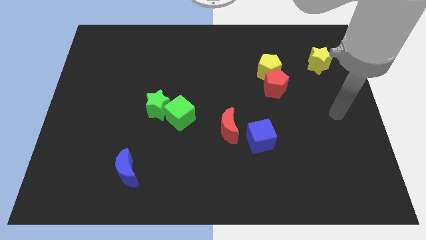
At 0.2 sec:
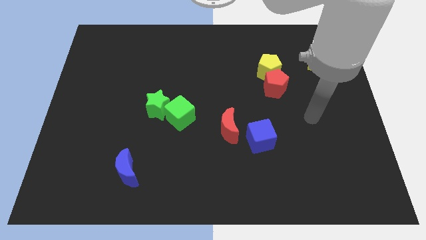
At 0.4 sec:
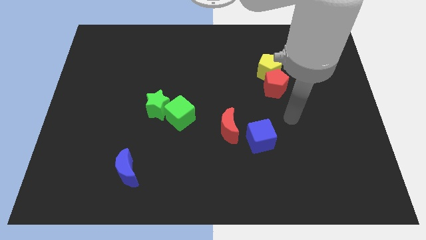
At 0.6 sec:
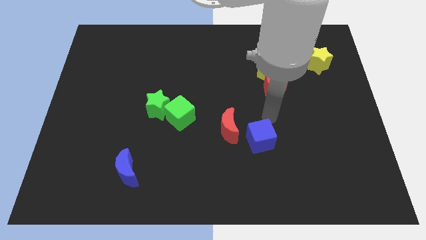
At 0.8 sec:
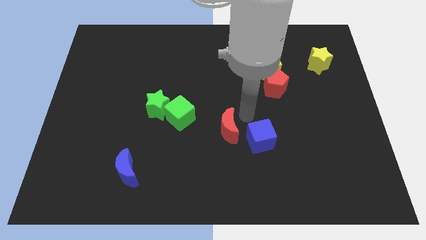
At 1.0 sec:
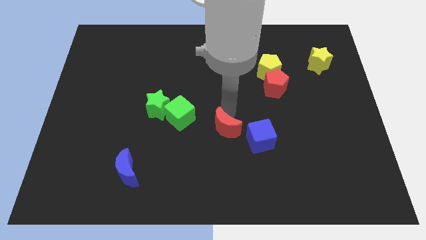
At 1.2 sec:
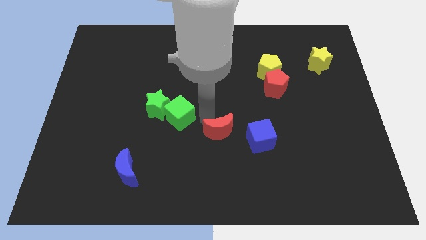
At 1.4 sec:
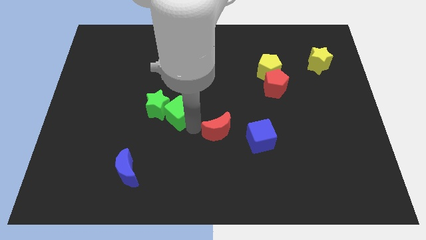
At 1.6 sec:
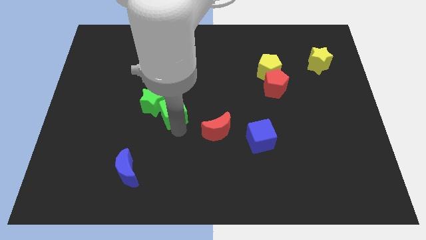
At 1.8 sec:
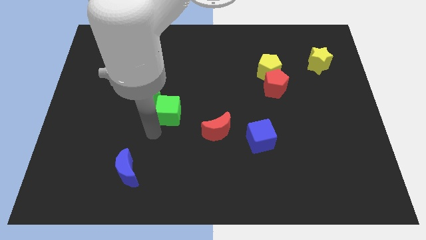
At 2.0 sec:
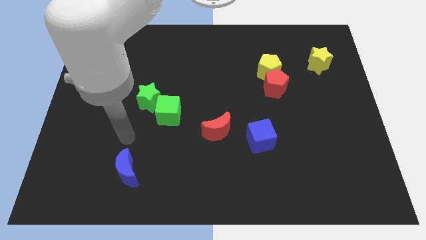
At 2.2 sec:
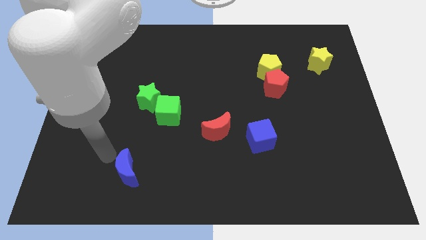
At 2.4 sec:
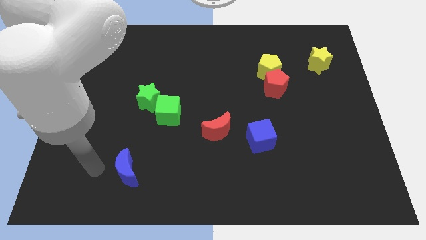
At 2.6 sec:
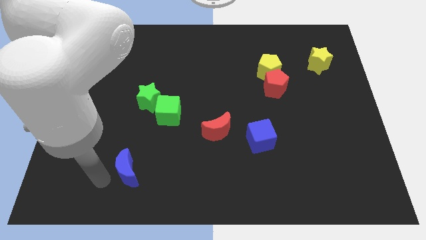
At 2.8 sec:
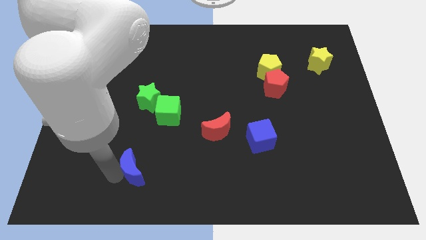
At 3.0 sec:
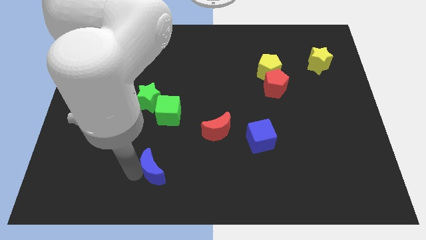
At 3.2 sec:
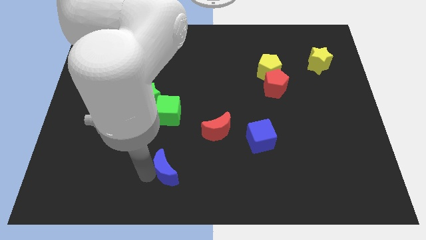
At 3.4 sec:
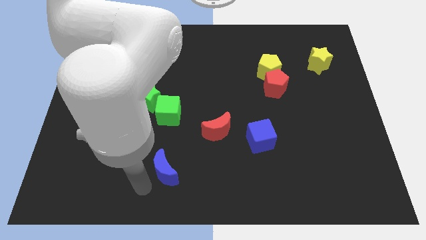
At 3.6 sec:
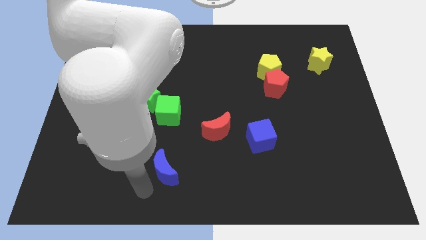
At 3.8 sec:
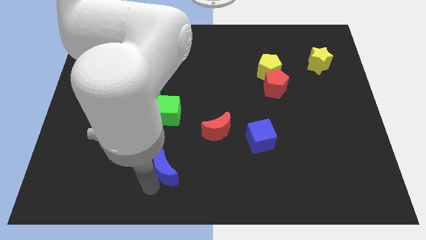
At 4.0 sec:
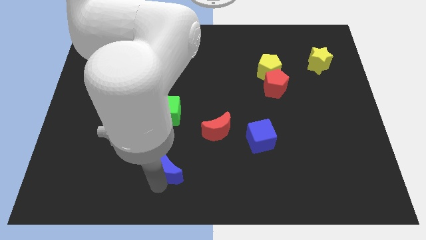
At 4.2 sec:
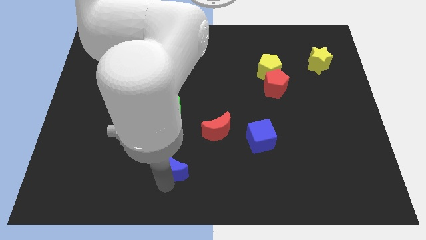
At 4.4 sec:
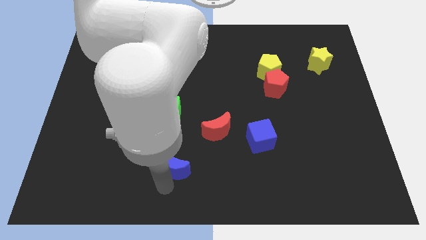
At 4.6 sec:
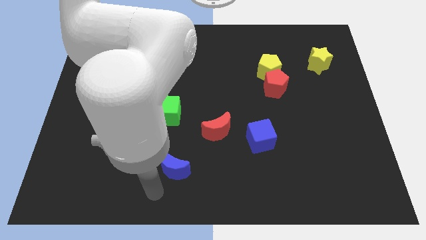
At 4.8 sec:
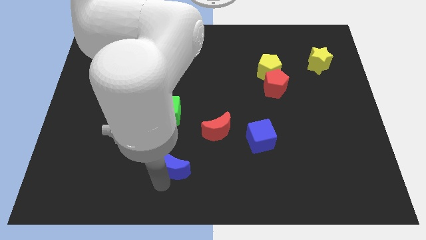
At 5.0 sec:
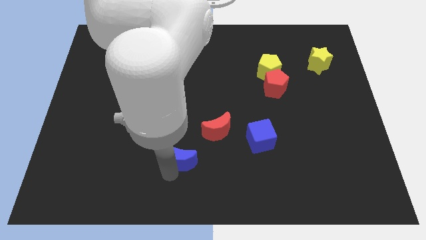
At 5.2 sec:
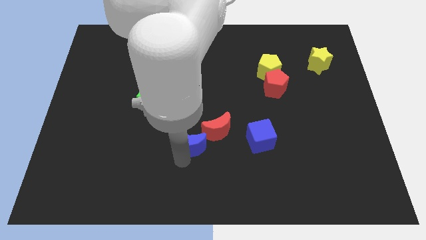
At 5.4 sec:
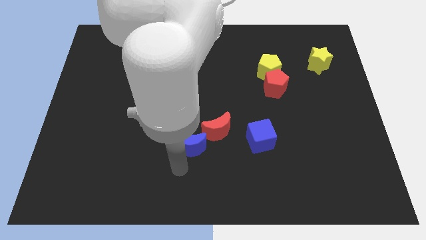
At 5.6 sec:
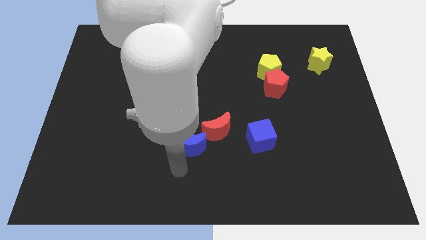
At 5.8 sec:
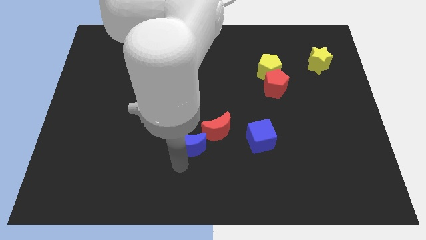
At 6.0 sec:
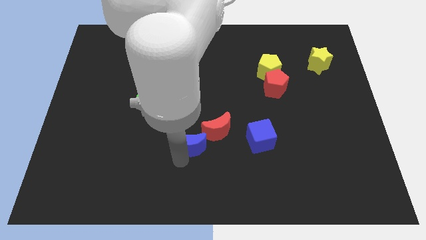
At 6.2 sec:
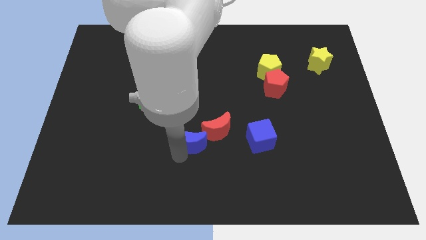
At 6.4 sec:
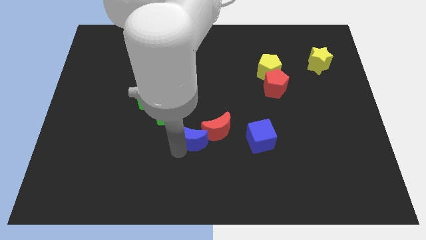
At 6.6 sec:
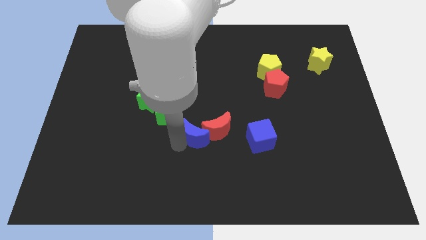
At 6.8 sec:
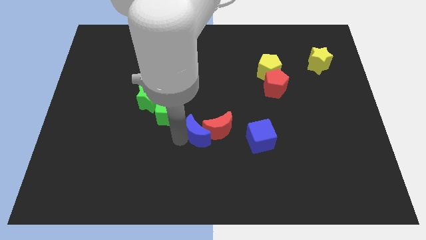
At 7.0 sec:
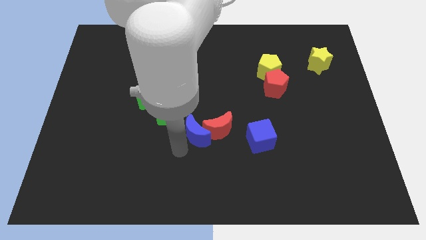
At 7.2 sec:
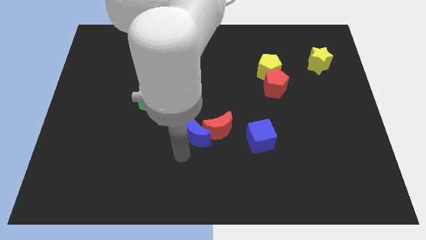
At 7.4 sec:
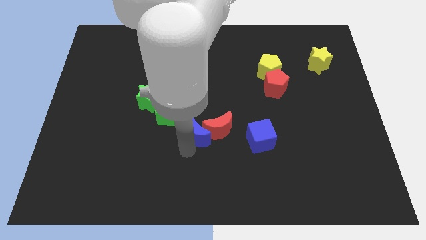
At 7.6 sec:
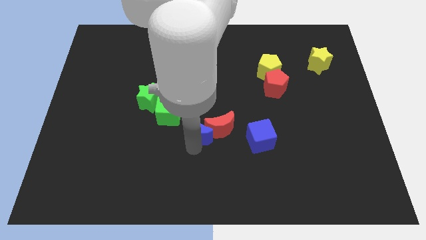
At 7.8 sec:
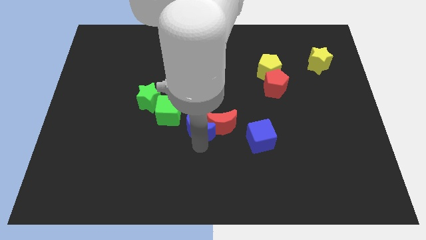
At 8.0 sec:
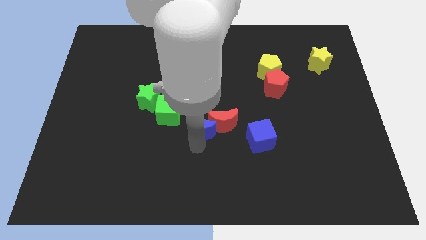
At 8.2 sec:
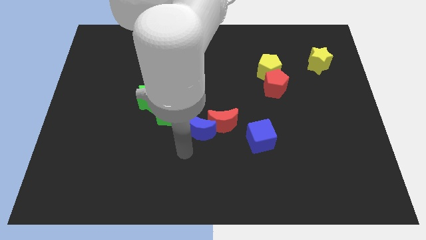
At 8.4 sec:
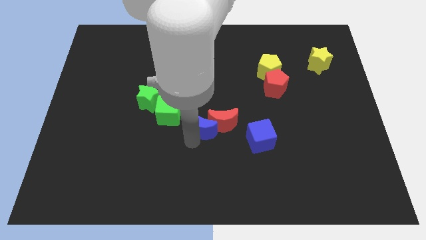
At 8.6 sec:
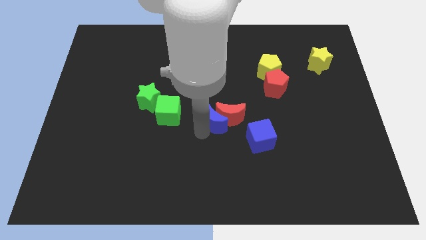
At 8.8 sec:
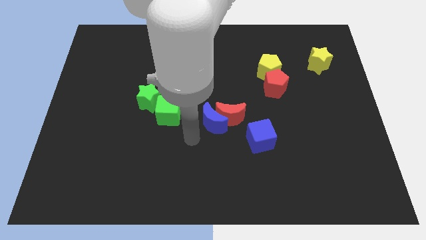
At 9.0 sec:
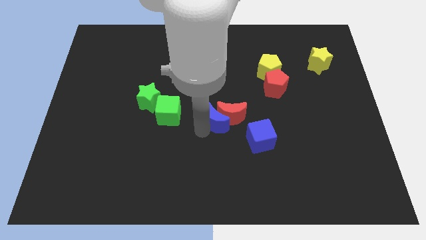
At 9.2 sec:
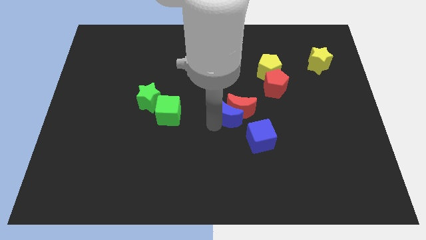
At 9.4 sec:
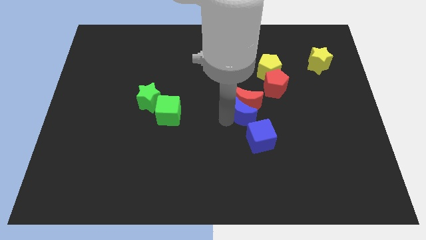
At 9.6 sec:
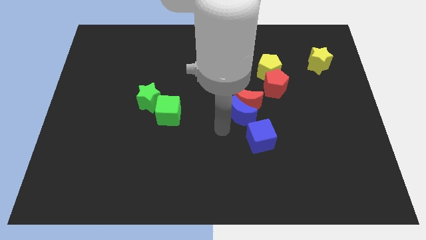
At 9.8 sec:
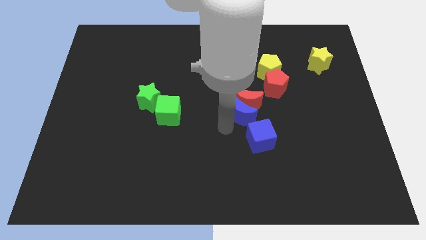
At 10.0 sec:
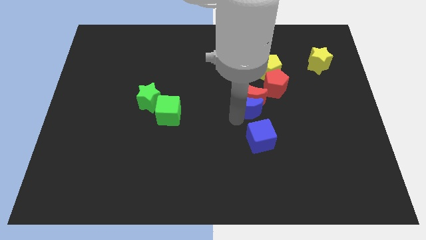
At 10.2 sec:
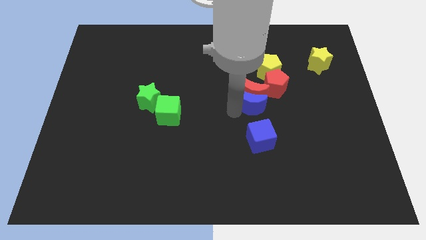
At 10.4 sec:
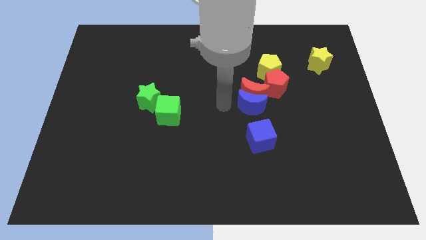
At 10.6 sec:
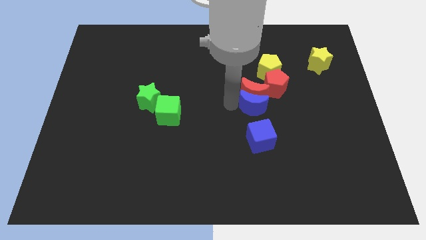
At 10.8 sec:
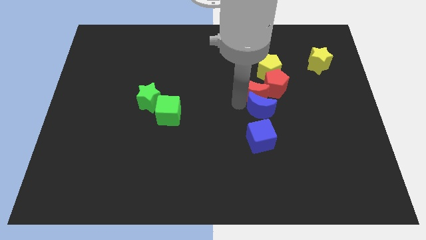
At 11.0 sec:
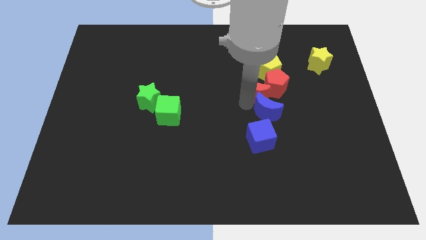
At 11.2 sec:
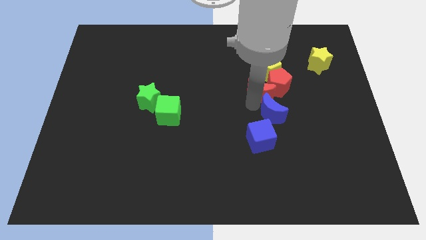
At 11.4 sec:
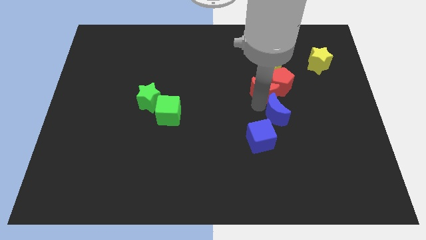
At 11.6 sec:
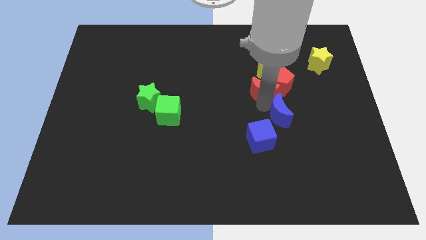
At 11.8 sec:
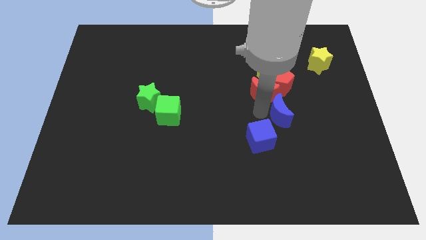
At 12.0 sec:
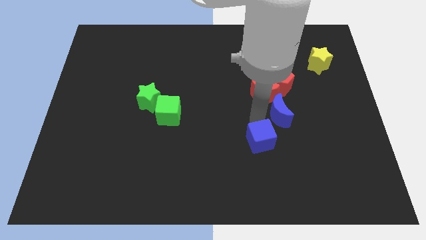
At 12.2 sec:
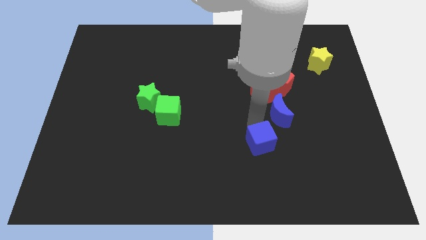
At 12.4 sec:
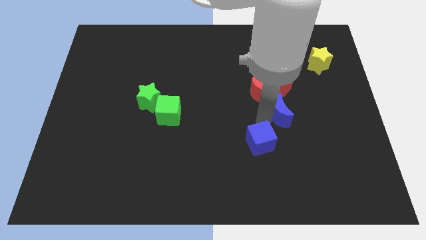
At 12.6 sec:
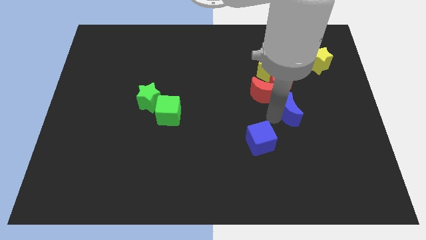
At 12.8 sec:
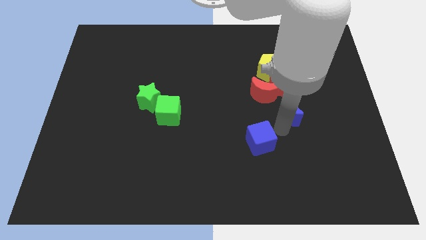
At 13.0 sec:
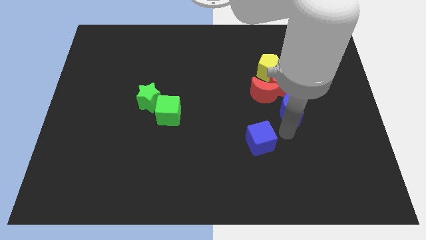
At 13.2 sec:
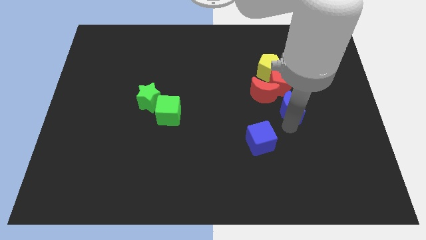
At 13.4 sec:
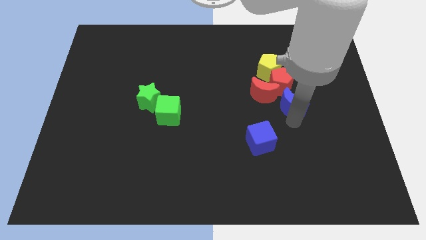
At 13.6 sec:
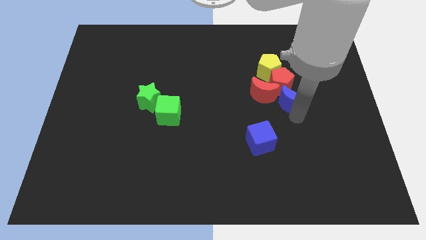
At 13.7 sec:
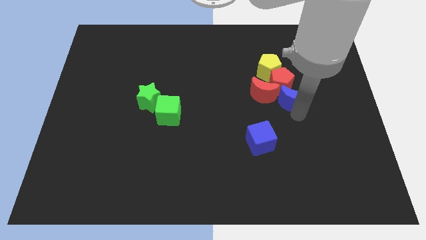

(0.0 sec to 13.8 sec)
move the blue moon to the bottom right side of the yellow pentagon
